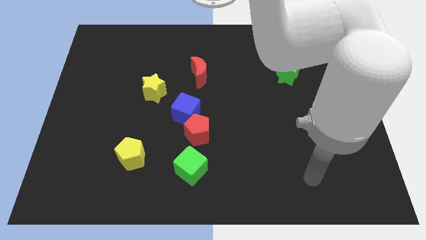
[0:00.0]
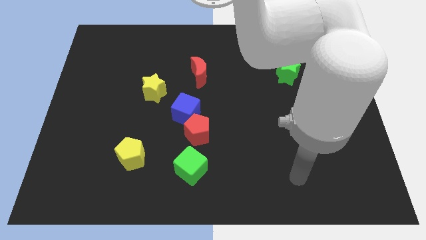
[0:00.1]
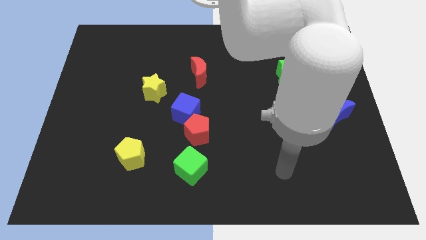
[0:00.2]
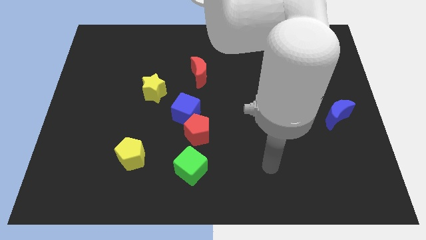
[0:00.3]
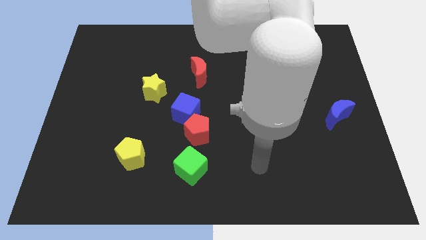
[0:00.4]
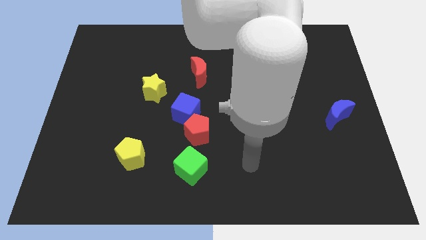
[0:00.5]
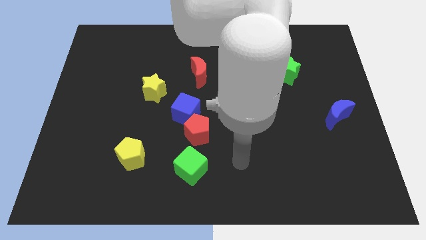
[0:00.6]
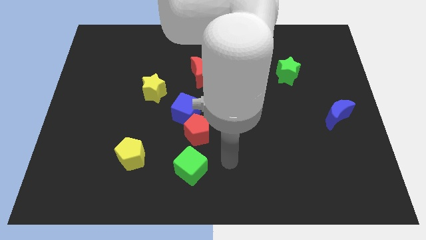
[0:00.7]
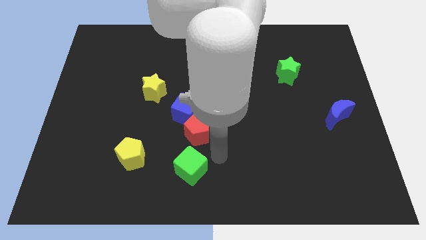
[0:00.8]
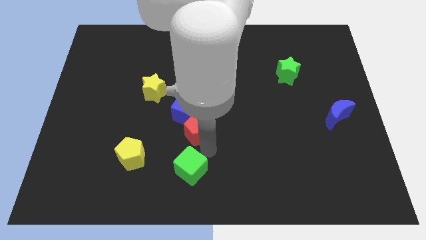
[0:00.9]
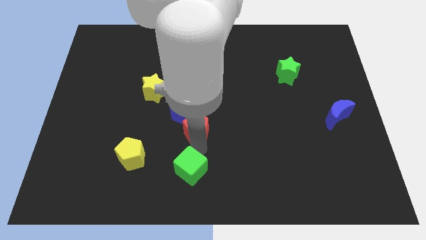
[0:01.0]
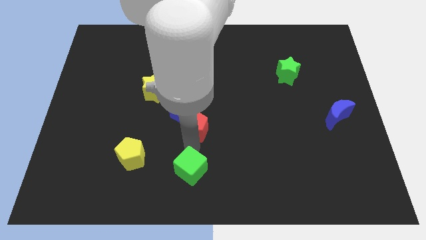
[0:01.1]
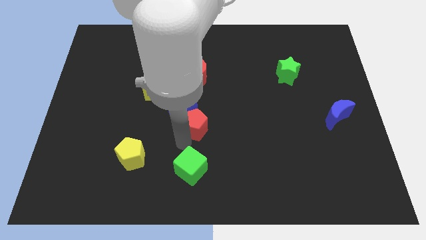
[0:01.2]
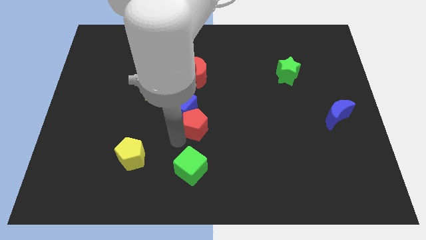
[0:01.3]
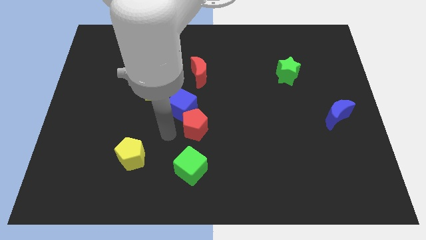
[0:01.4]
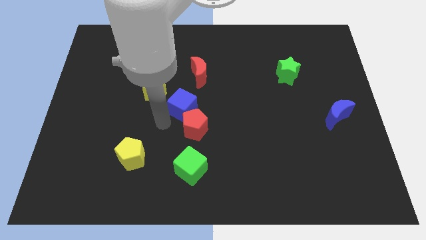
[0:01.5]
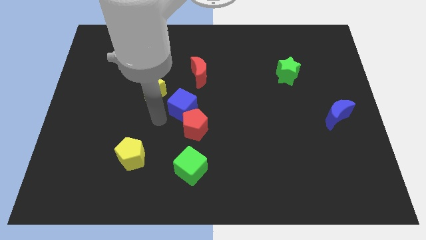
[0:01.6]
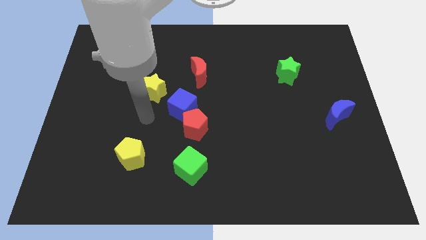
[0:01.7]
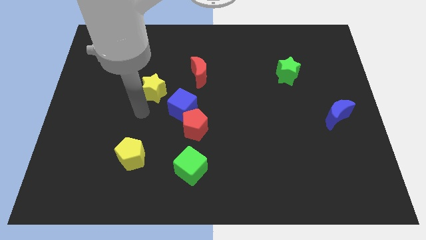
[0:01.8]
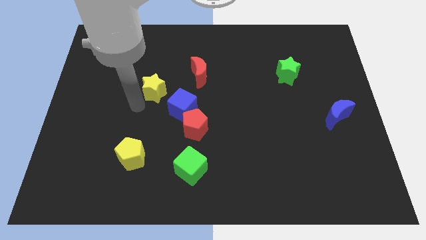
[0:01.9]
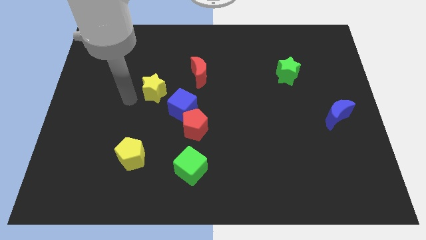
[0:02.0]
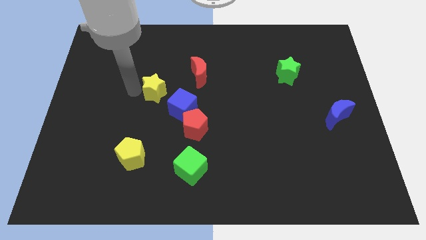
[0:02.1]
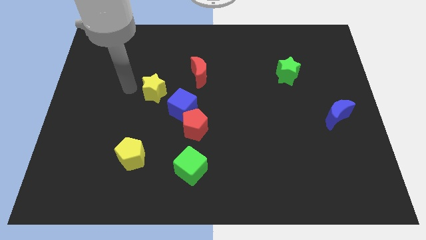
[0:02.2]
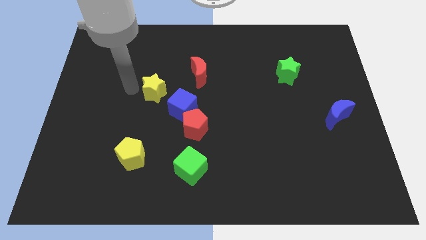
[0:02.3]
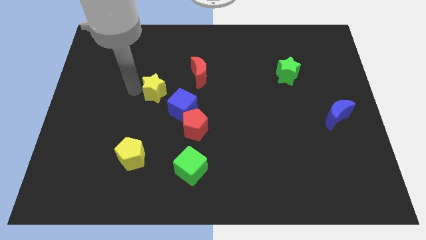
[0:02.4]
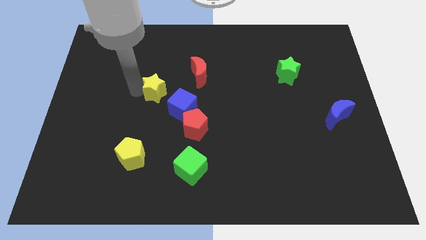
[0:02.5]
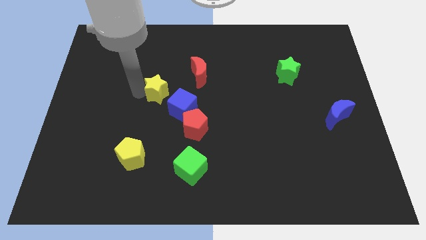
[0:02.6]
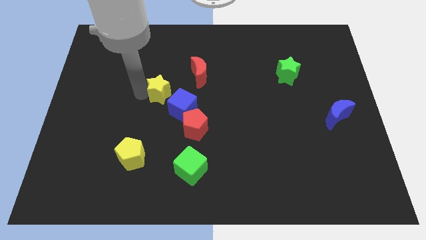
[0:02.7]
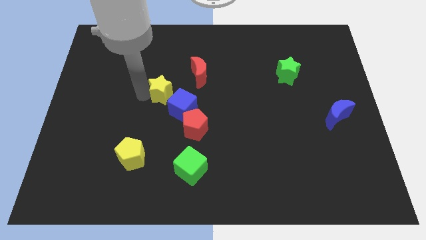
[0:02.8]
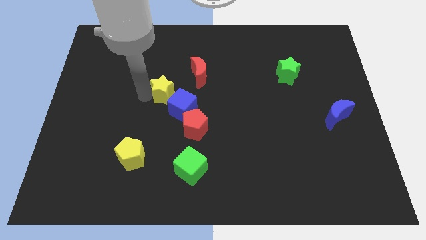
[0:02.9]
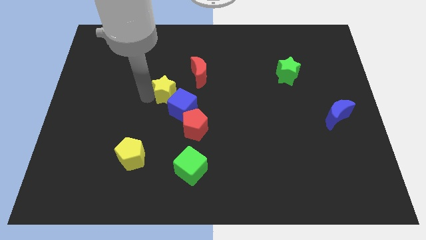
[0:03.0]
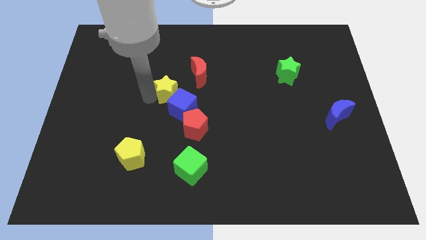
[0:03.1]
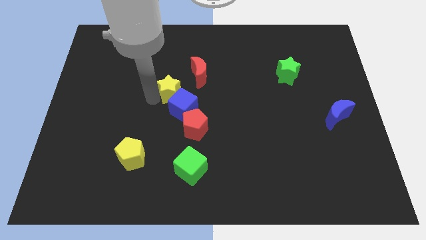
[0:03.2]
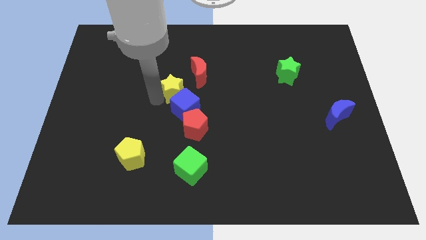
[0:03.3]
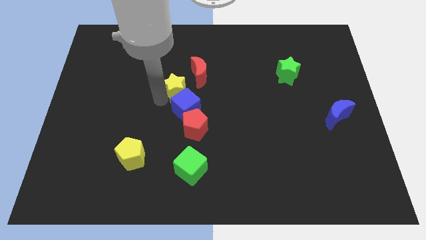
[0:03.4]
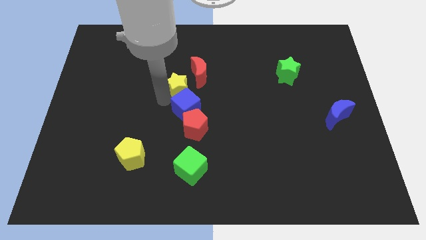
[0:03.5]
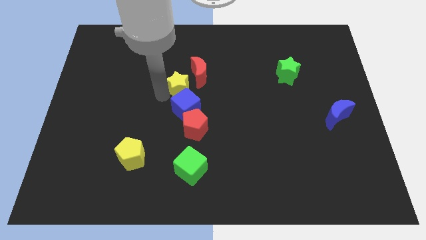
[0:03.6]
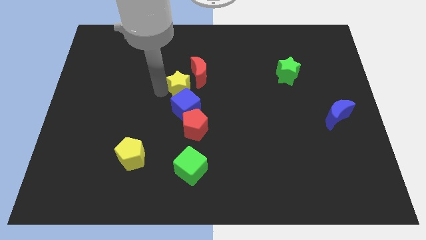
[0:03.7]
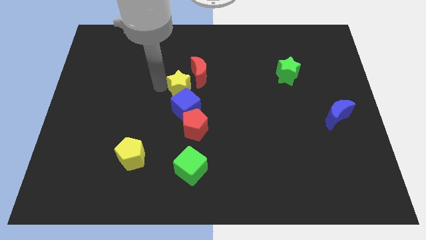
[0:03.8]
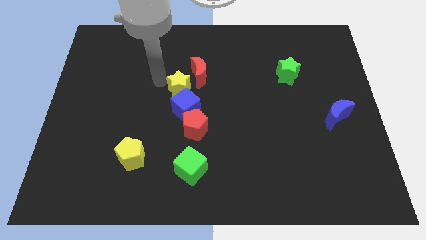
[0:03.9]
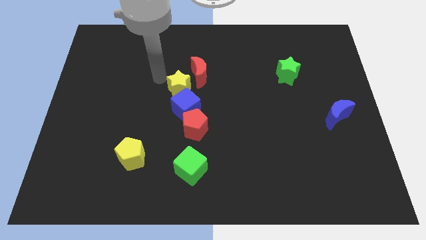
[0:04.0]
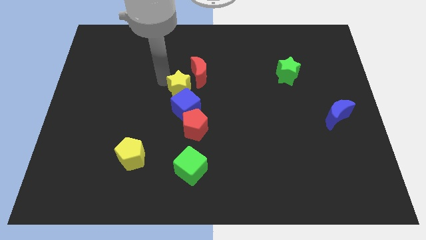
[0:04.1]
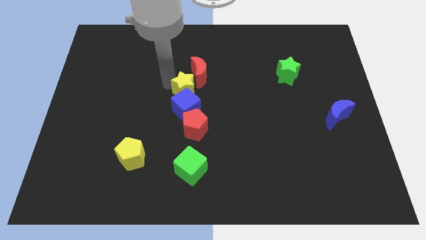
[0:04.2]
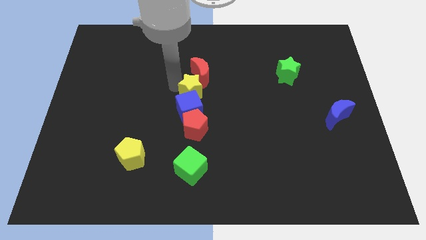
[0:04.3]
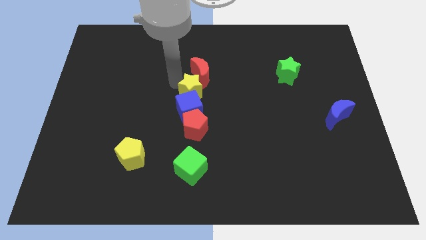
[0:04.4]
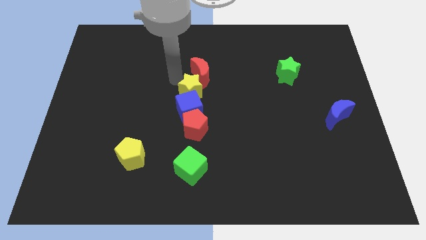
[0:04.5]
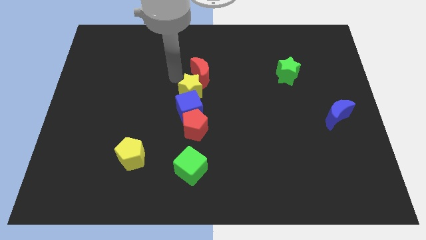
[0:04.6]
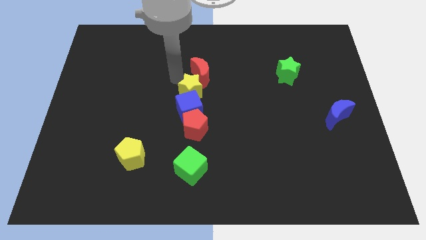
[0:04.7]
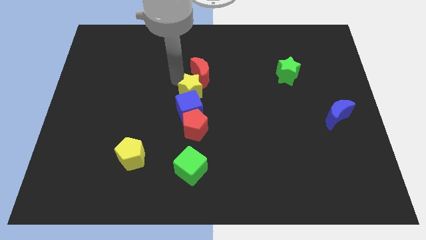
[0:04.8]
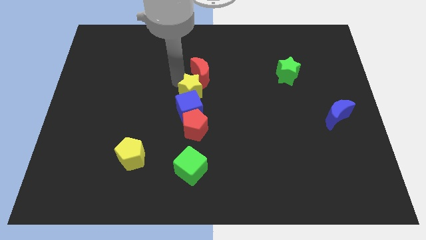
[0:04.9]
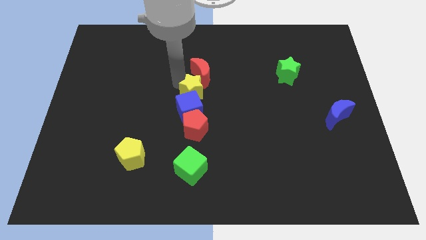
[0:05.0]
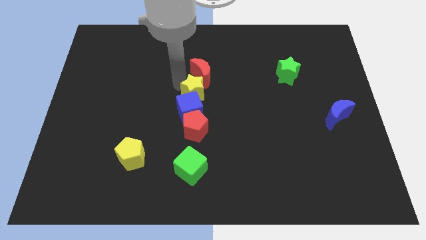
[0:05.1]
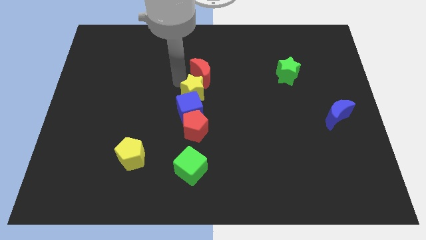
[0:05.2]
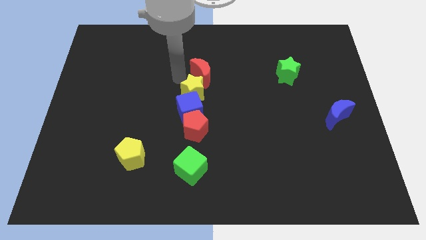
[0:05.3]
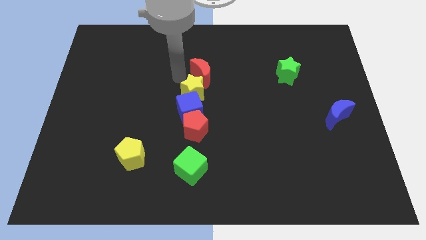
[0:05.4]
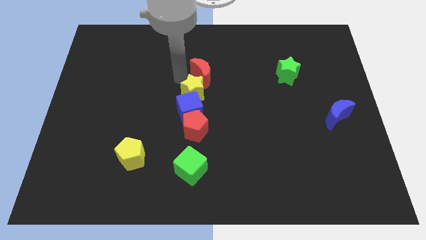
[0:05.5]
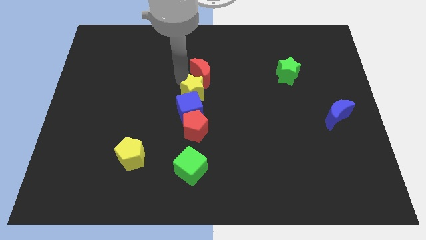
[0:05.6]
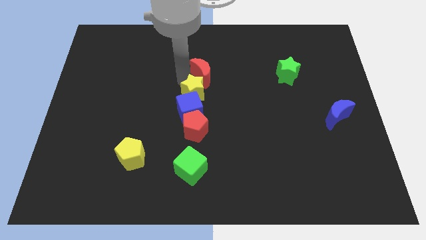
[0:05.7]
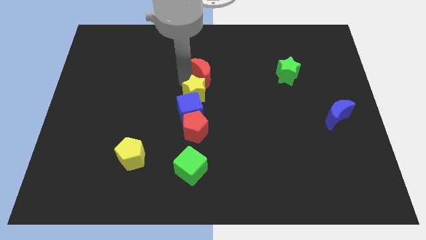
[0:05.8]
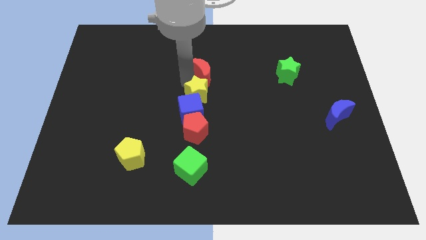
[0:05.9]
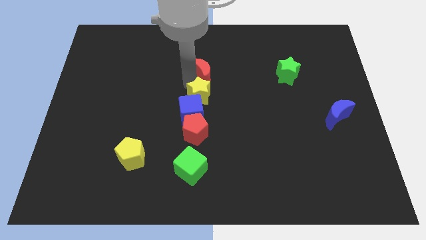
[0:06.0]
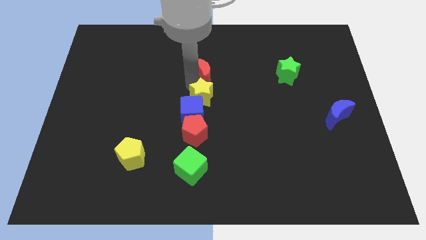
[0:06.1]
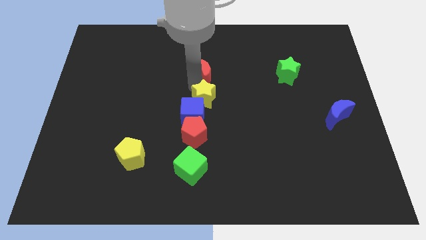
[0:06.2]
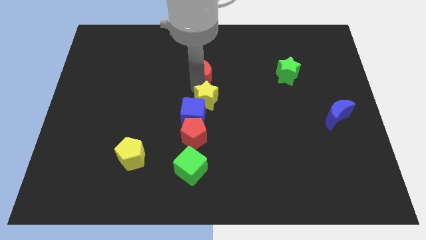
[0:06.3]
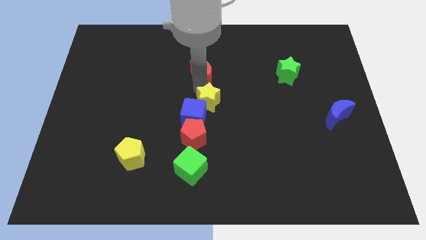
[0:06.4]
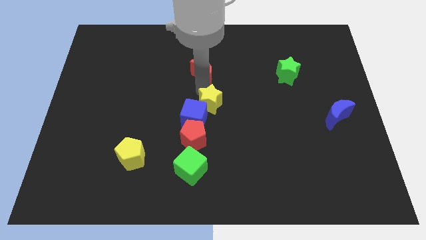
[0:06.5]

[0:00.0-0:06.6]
move the yellow star diagonally up and to the right of the red pentagon

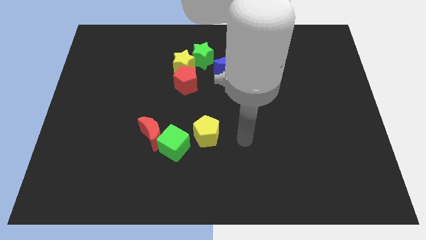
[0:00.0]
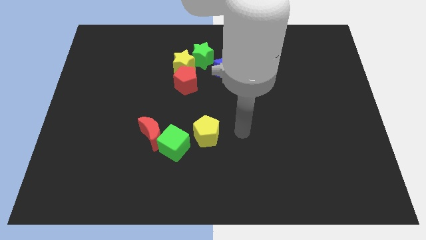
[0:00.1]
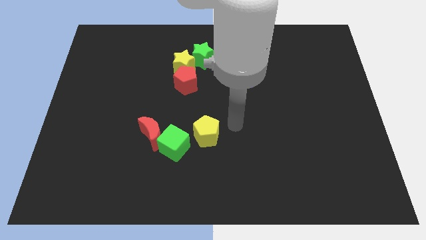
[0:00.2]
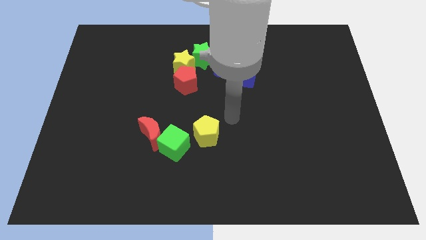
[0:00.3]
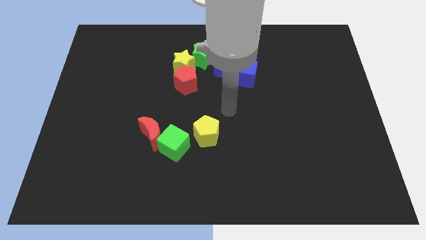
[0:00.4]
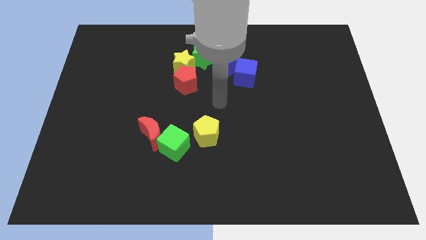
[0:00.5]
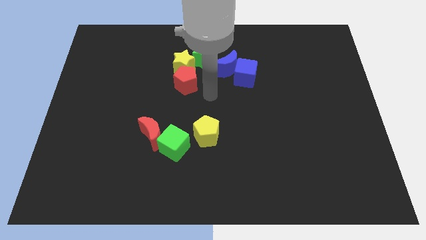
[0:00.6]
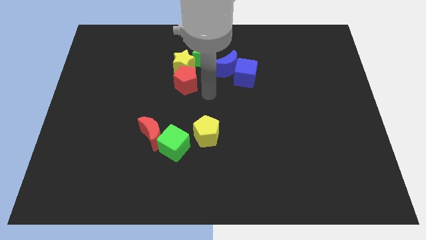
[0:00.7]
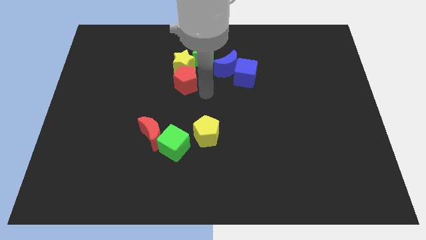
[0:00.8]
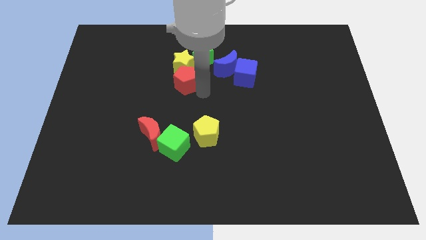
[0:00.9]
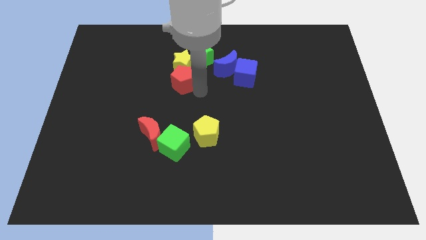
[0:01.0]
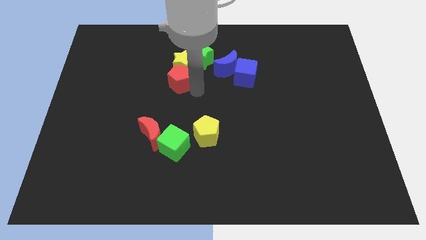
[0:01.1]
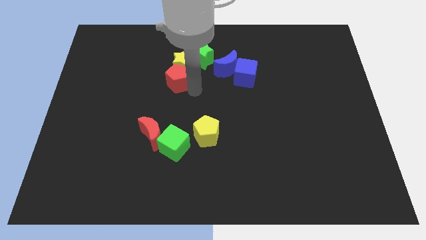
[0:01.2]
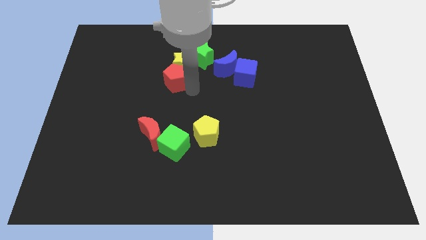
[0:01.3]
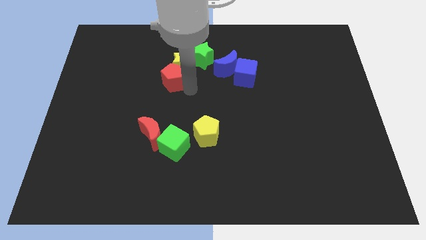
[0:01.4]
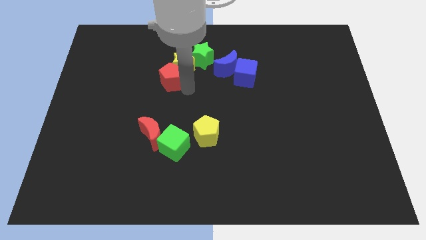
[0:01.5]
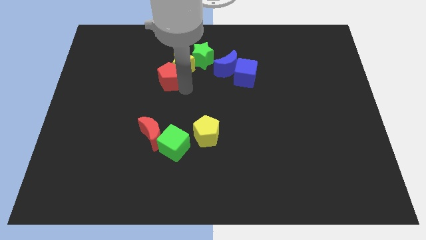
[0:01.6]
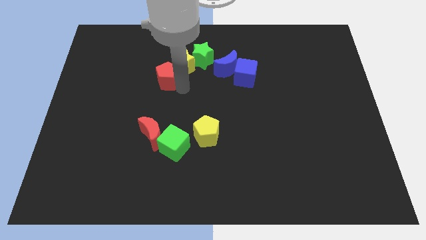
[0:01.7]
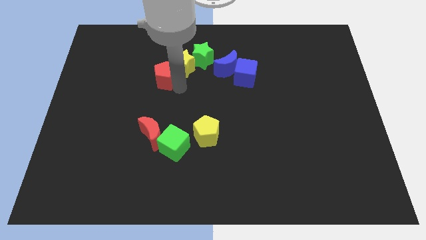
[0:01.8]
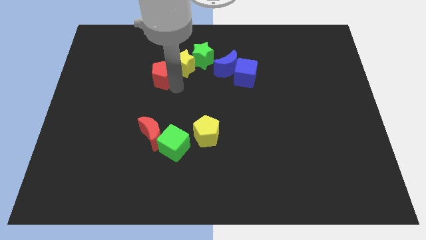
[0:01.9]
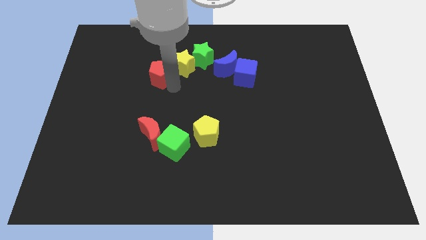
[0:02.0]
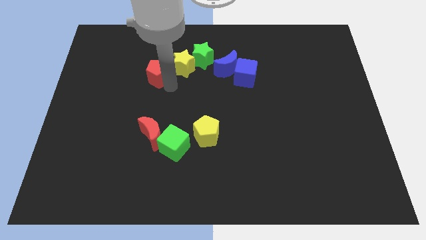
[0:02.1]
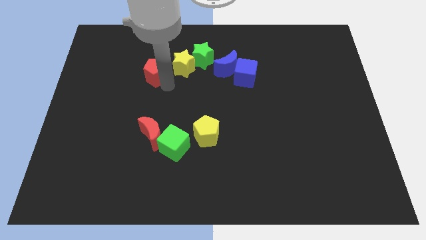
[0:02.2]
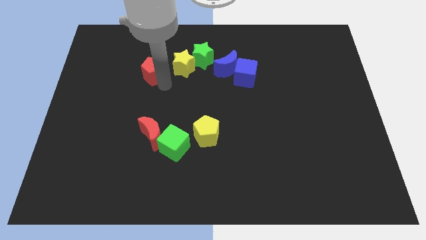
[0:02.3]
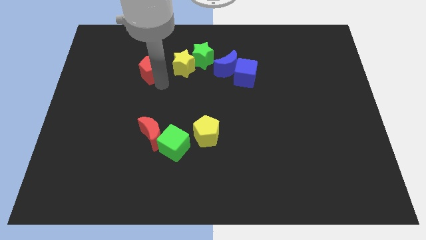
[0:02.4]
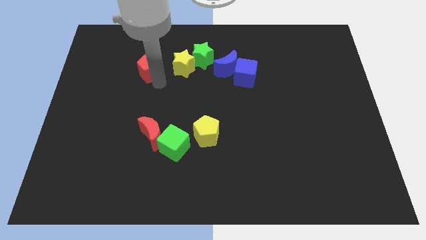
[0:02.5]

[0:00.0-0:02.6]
move the red pentagon to the left side of the green star
